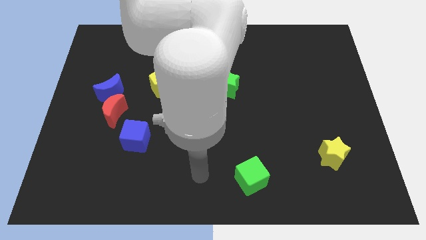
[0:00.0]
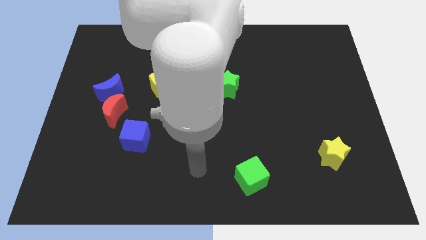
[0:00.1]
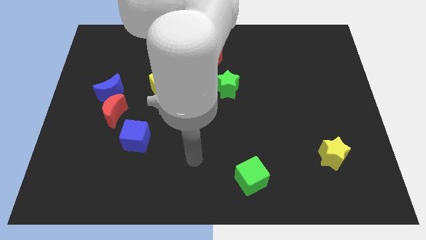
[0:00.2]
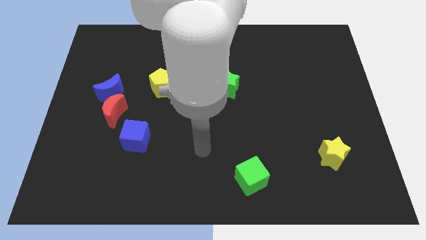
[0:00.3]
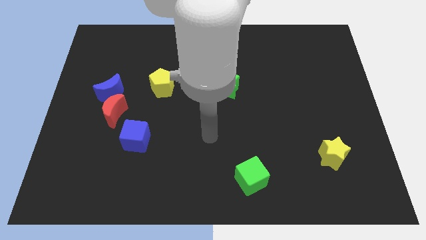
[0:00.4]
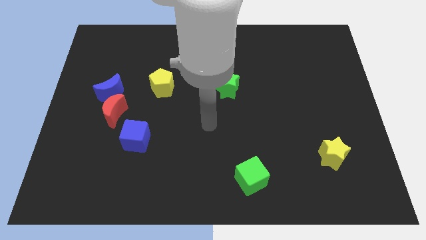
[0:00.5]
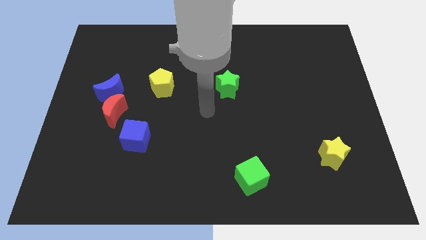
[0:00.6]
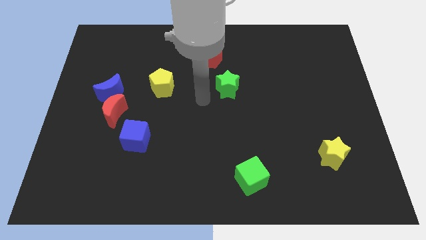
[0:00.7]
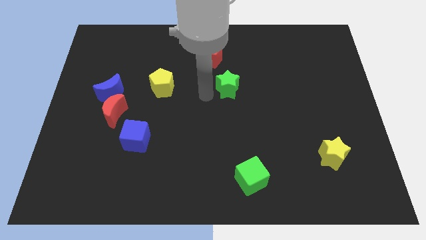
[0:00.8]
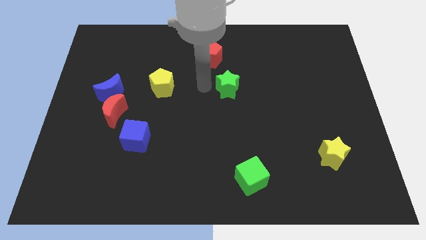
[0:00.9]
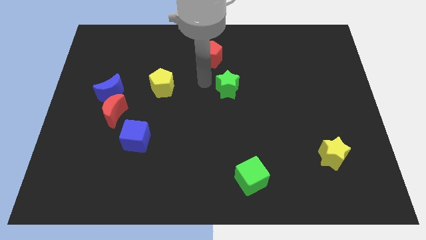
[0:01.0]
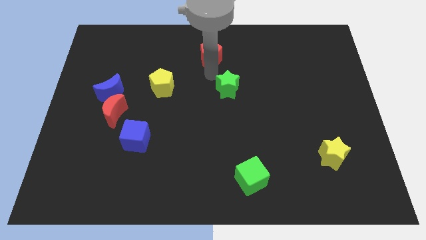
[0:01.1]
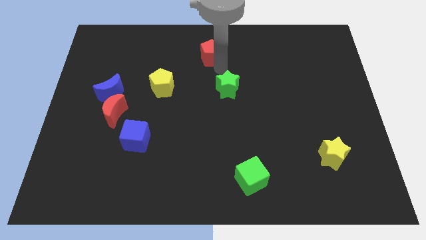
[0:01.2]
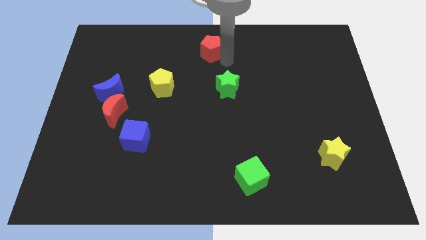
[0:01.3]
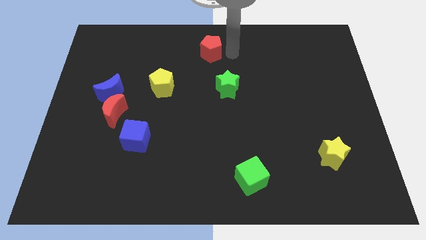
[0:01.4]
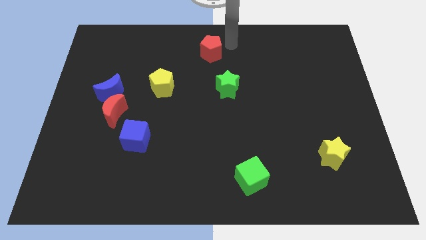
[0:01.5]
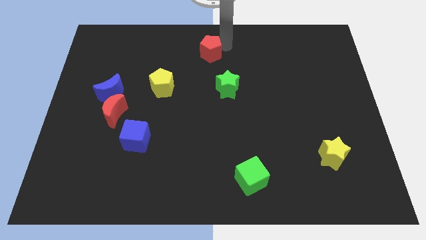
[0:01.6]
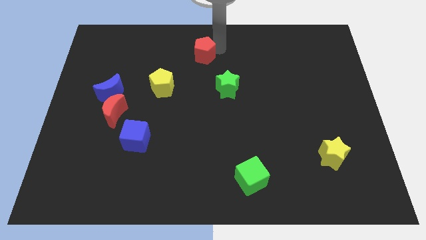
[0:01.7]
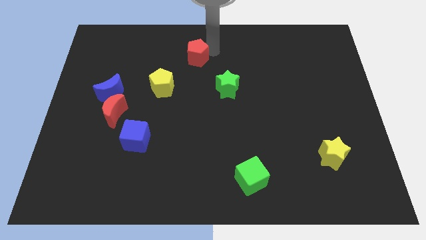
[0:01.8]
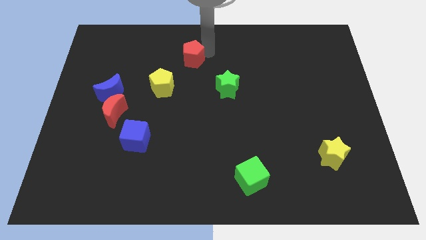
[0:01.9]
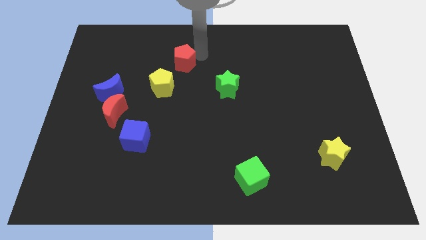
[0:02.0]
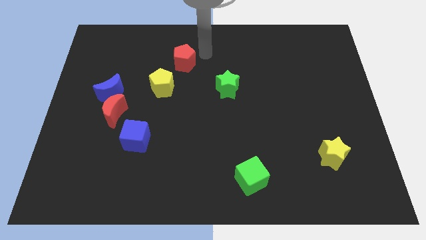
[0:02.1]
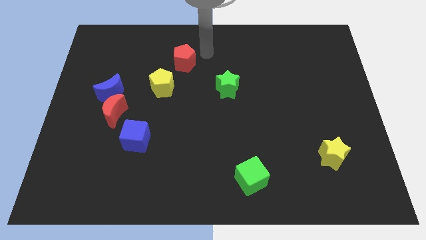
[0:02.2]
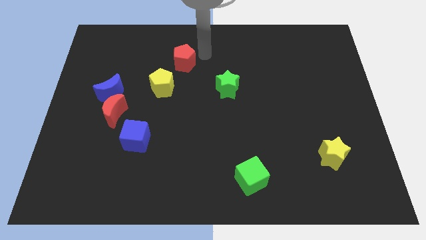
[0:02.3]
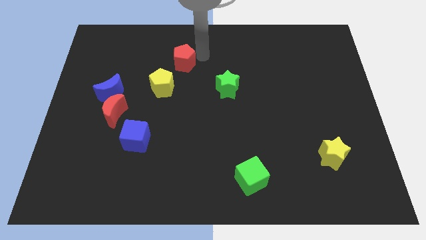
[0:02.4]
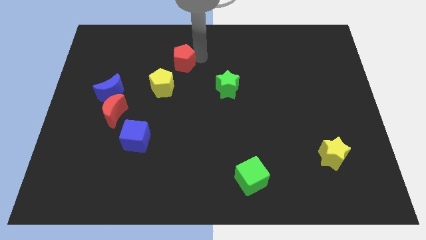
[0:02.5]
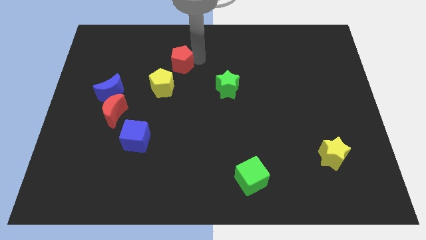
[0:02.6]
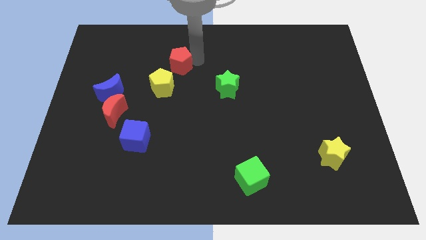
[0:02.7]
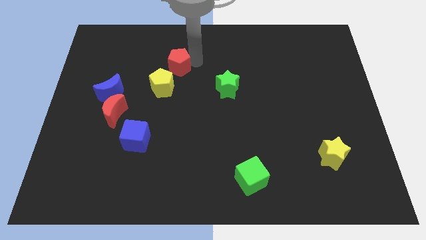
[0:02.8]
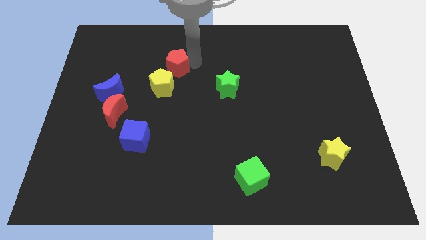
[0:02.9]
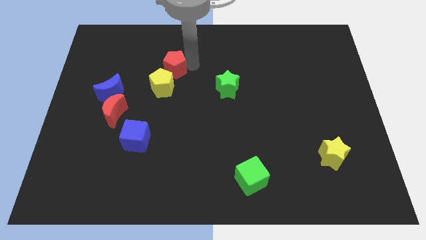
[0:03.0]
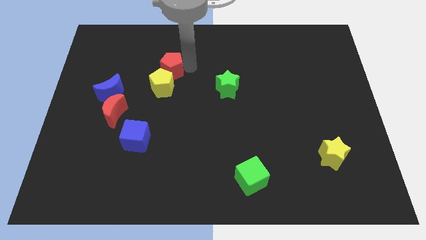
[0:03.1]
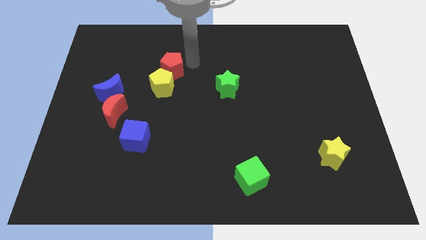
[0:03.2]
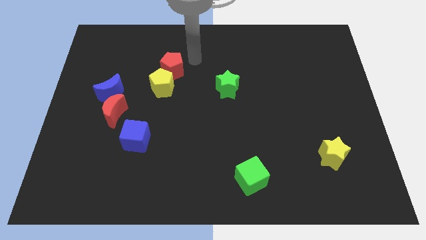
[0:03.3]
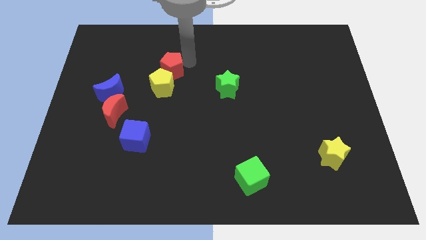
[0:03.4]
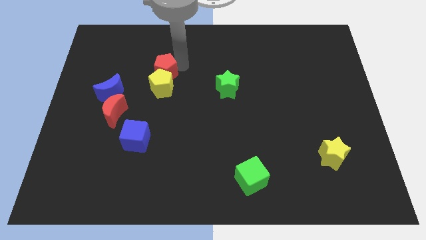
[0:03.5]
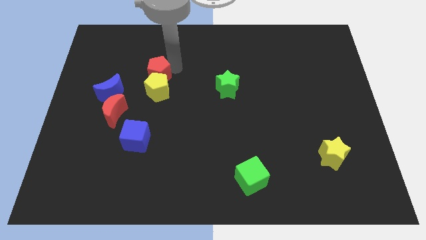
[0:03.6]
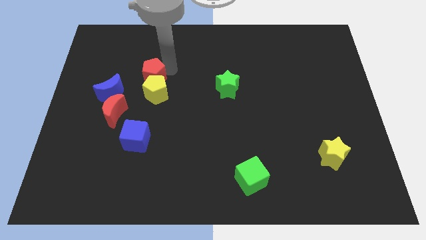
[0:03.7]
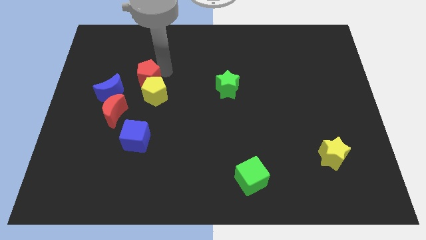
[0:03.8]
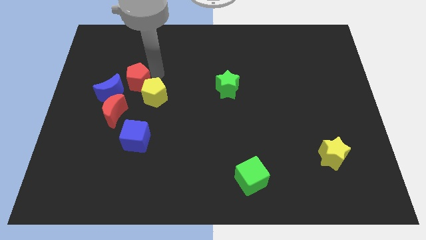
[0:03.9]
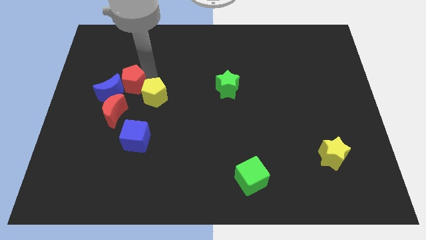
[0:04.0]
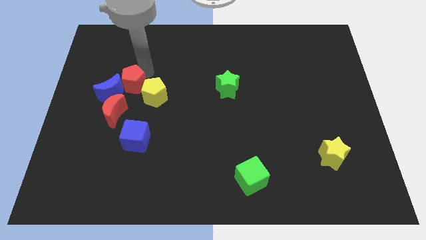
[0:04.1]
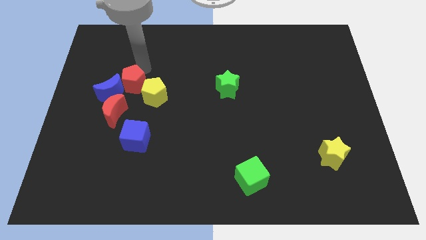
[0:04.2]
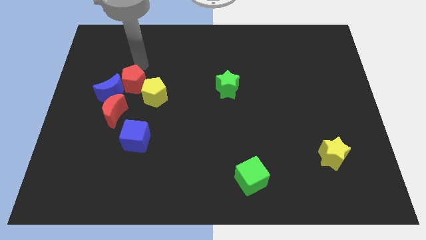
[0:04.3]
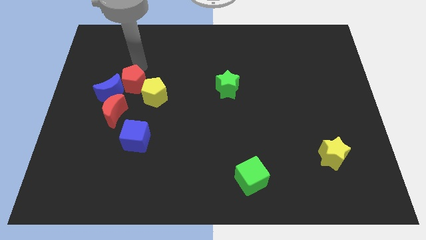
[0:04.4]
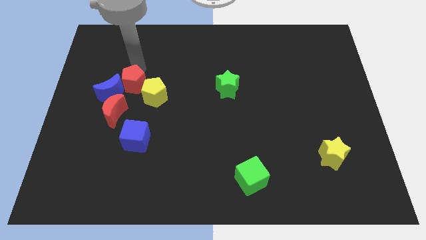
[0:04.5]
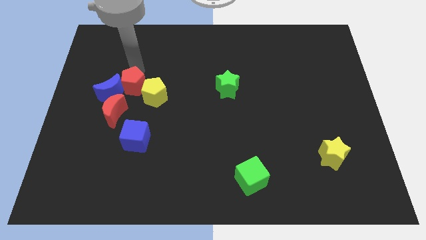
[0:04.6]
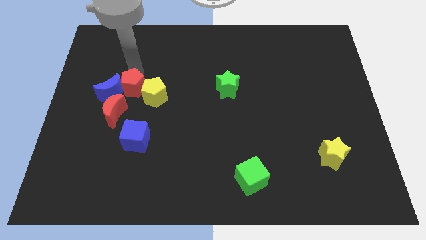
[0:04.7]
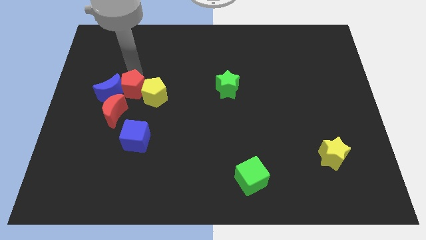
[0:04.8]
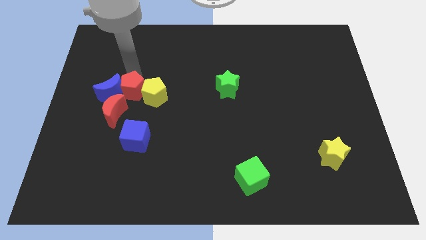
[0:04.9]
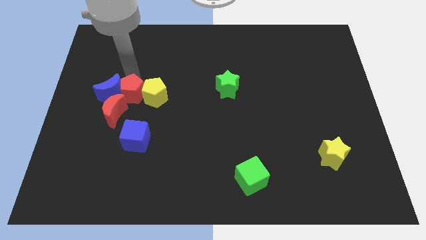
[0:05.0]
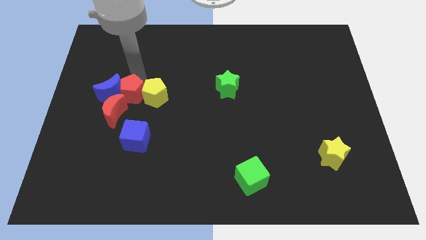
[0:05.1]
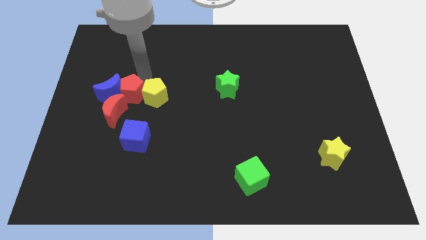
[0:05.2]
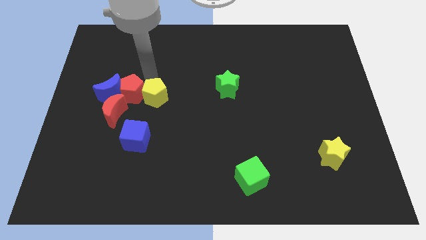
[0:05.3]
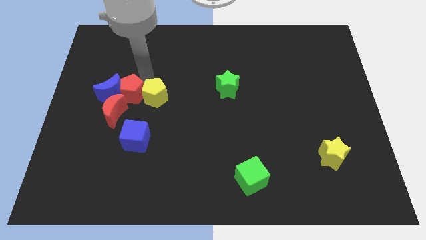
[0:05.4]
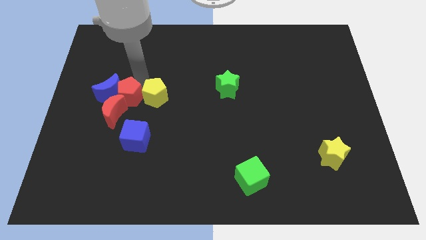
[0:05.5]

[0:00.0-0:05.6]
slide the red pentagon to the red moon
